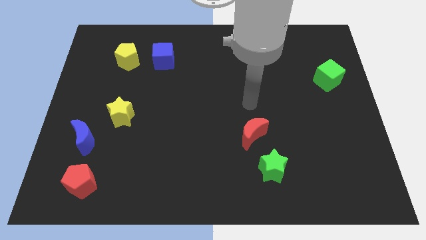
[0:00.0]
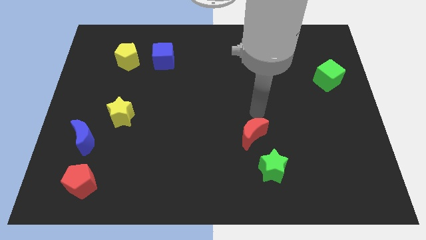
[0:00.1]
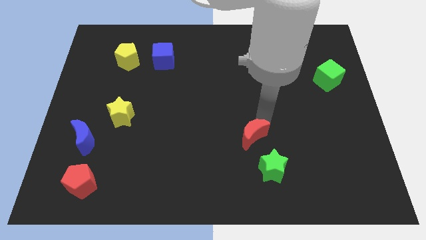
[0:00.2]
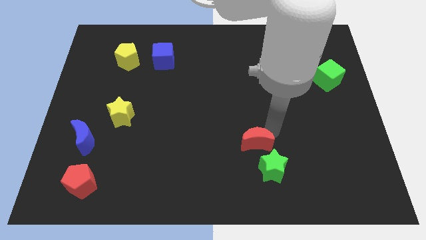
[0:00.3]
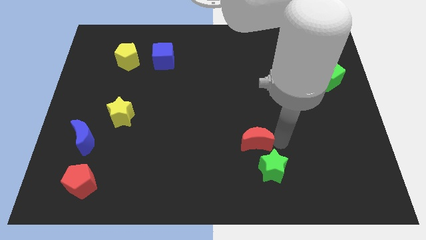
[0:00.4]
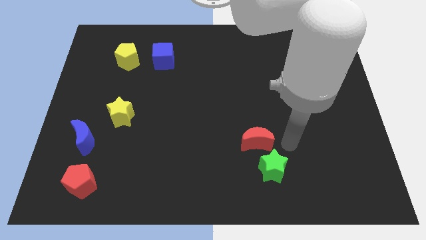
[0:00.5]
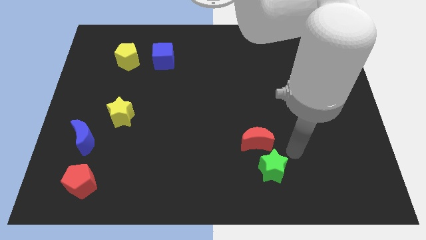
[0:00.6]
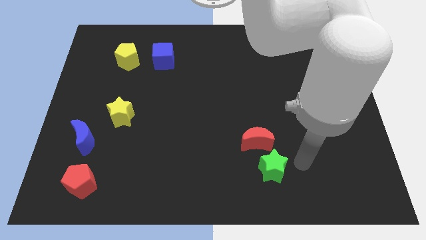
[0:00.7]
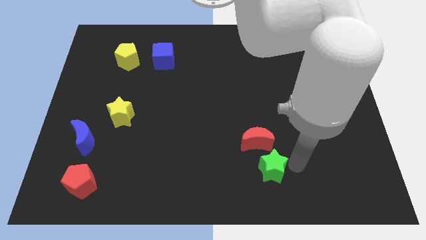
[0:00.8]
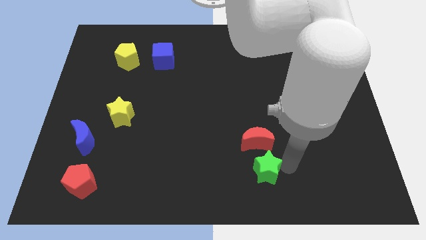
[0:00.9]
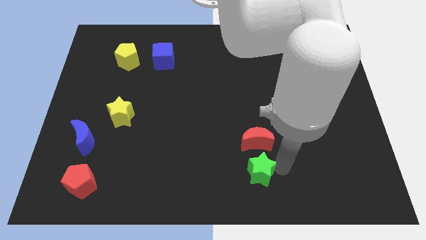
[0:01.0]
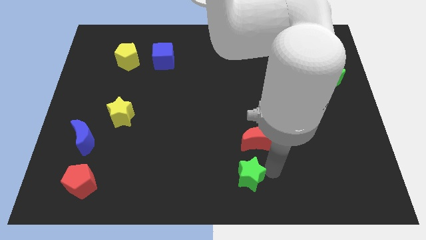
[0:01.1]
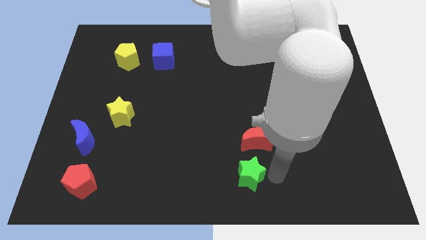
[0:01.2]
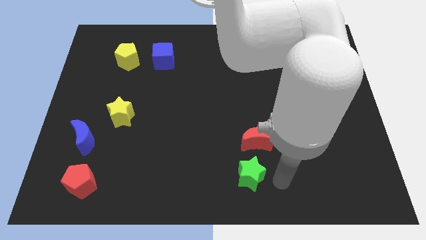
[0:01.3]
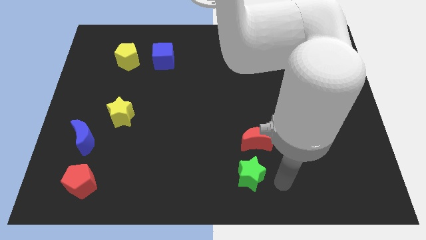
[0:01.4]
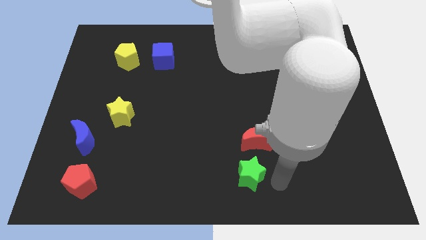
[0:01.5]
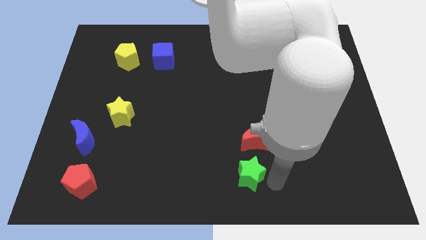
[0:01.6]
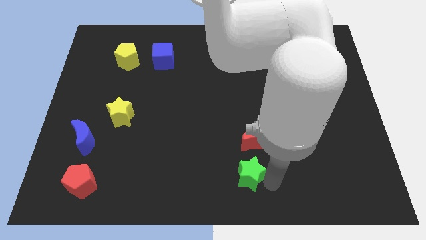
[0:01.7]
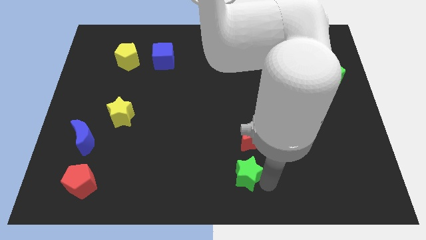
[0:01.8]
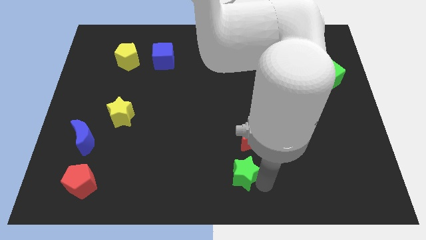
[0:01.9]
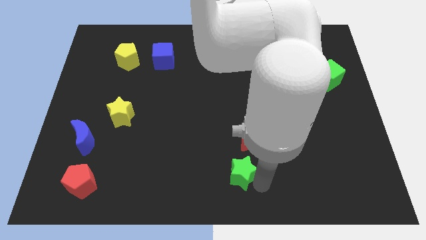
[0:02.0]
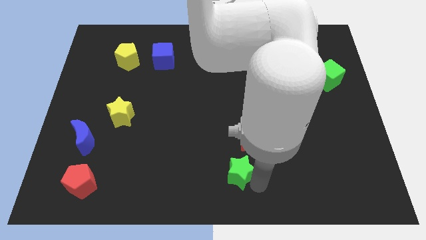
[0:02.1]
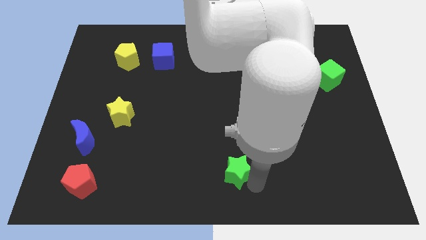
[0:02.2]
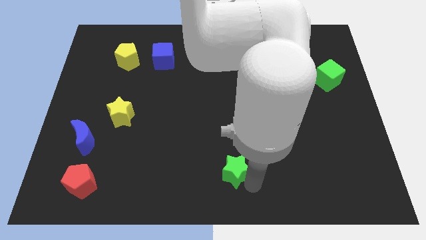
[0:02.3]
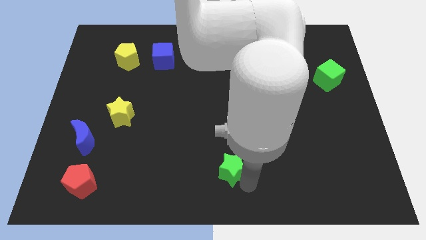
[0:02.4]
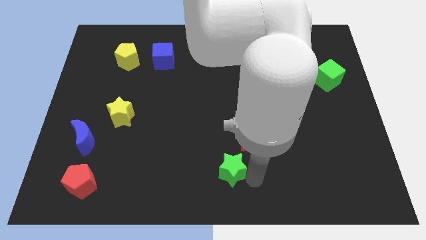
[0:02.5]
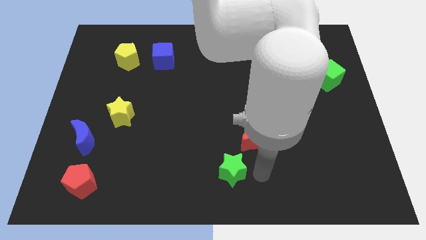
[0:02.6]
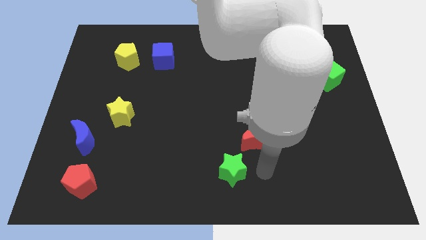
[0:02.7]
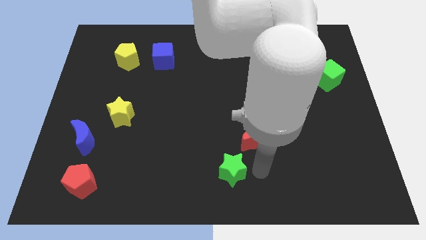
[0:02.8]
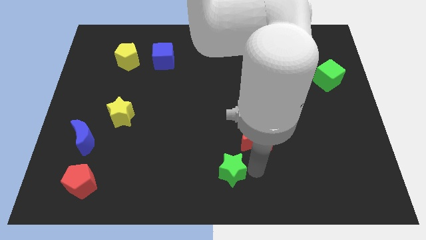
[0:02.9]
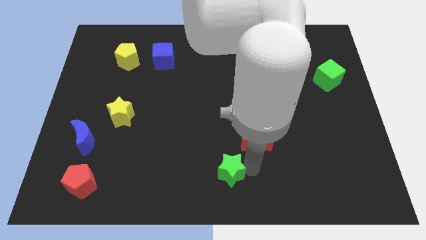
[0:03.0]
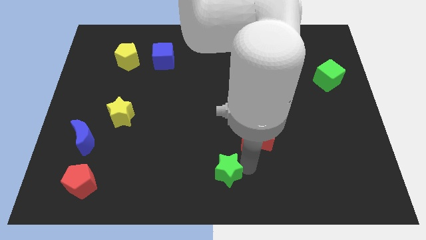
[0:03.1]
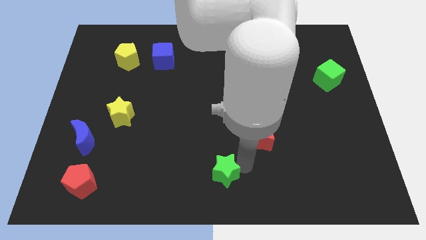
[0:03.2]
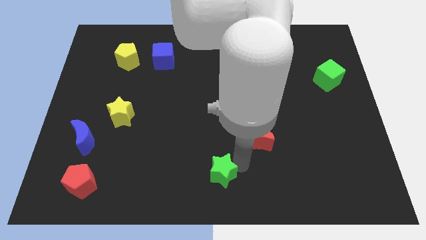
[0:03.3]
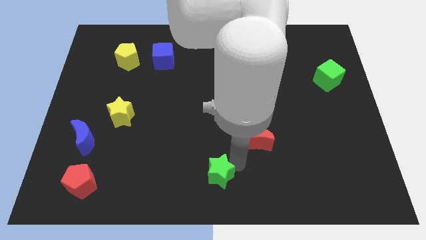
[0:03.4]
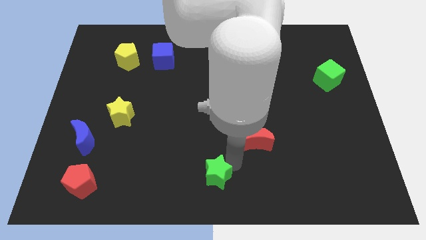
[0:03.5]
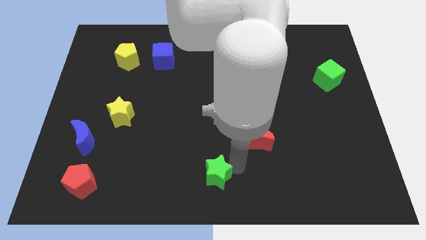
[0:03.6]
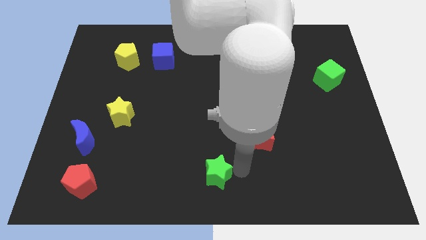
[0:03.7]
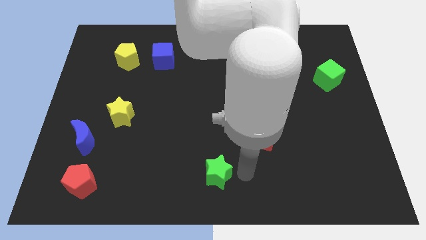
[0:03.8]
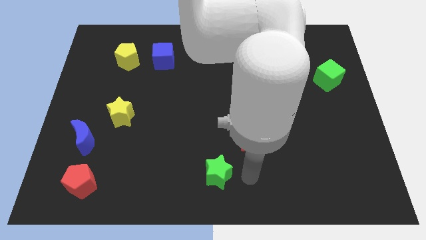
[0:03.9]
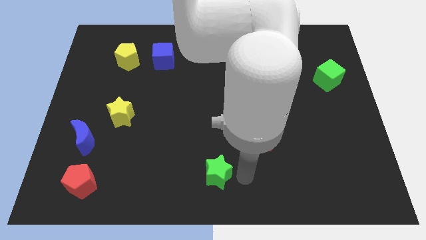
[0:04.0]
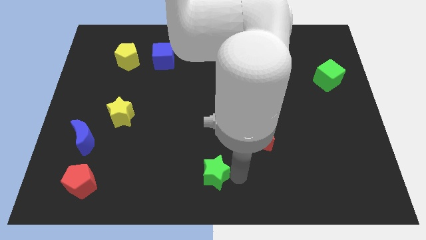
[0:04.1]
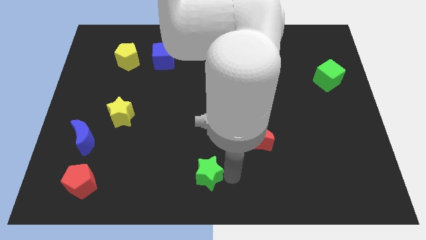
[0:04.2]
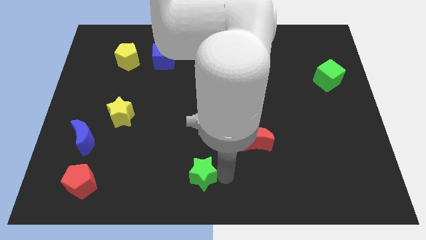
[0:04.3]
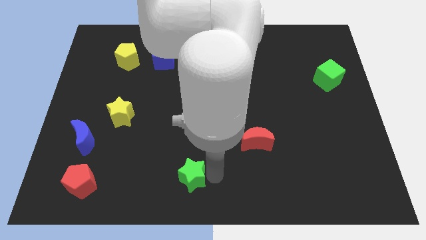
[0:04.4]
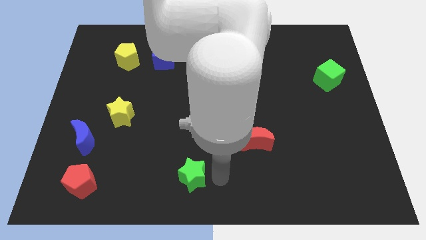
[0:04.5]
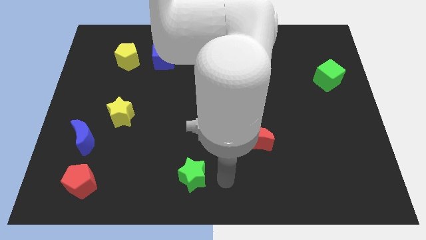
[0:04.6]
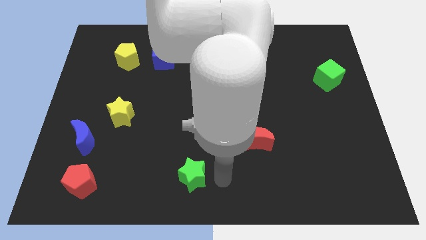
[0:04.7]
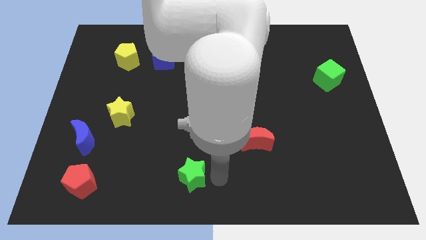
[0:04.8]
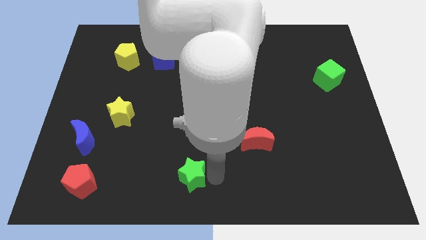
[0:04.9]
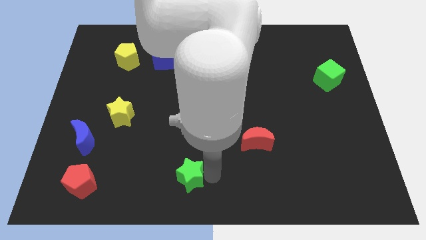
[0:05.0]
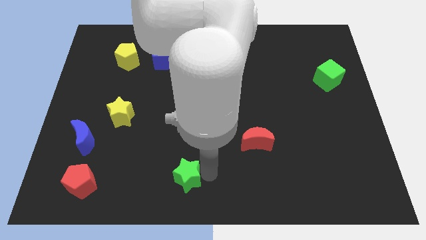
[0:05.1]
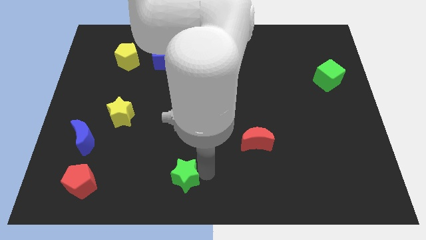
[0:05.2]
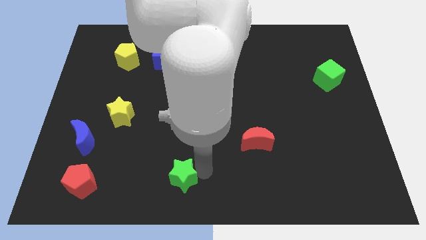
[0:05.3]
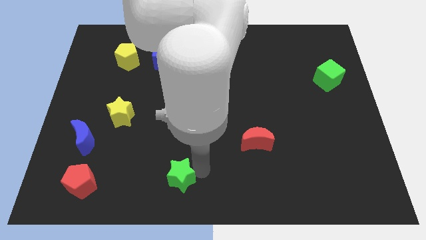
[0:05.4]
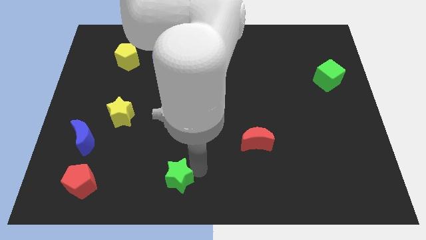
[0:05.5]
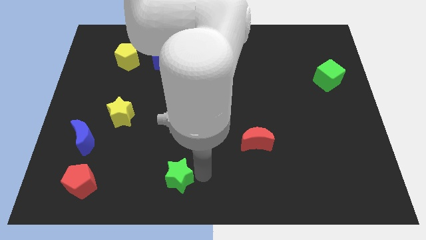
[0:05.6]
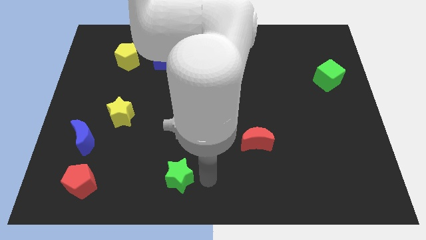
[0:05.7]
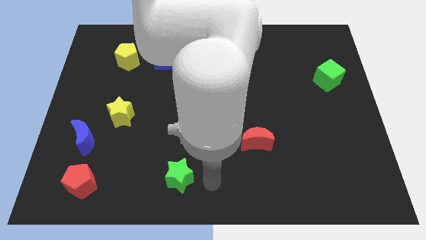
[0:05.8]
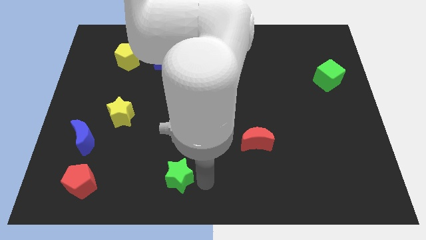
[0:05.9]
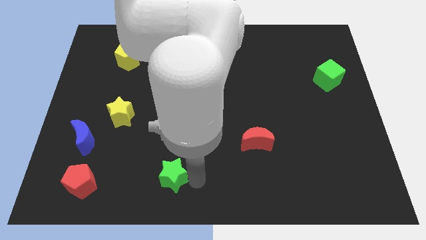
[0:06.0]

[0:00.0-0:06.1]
move the green star to the left

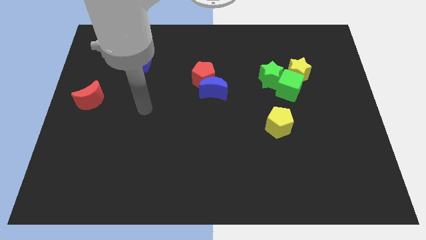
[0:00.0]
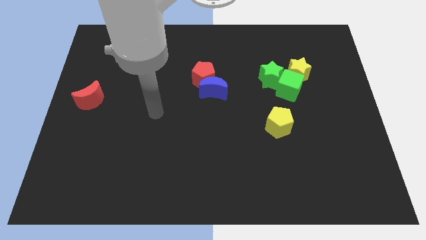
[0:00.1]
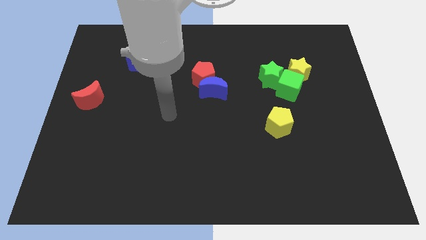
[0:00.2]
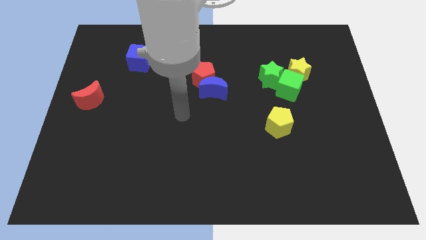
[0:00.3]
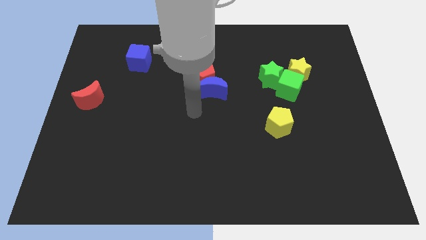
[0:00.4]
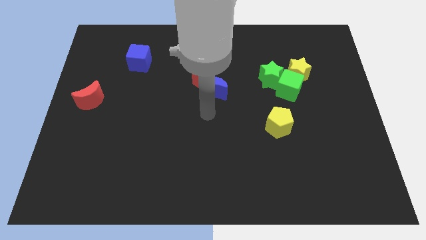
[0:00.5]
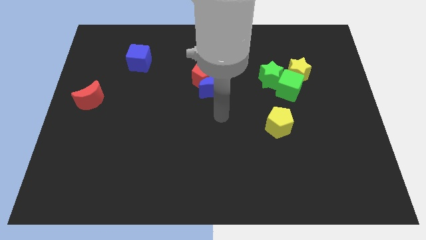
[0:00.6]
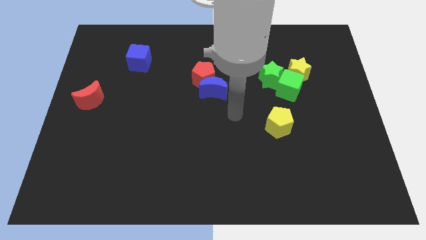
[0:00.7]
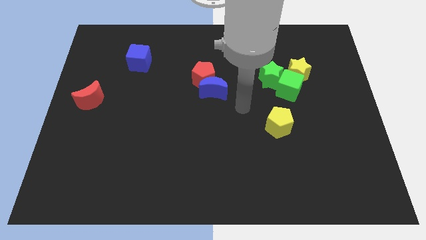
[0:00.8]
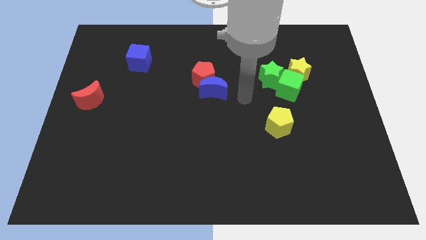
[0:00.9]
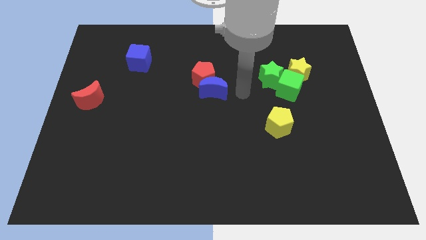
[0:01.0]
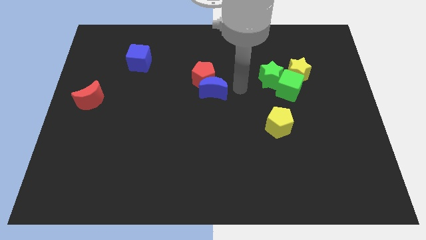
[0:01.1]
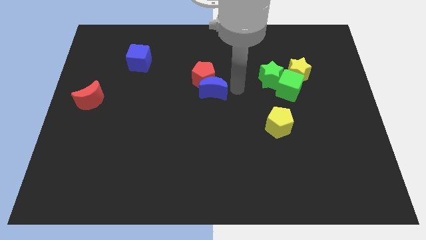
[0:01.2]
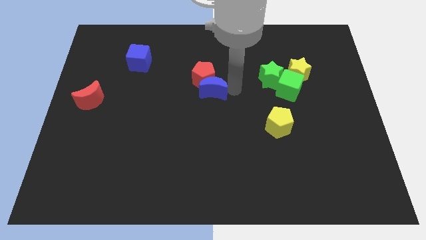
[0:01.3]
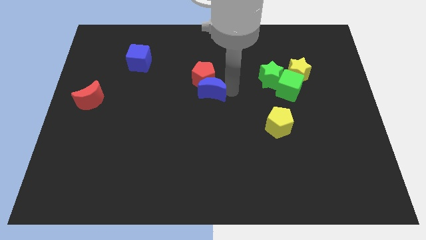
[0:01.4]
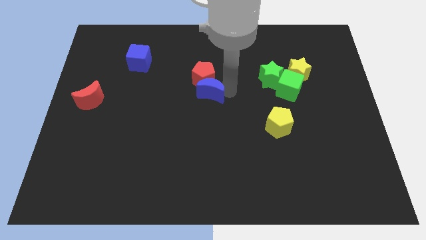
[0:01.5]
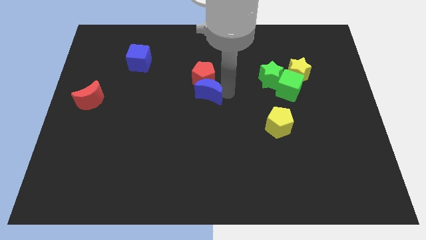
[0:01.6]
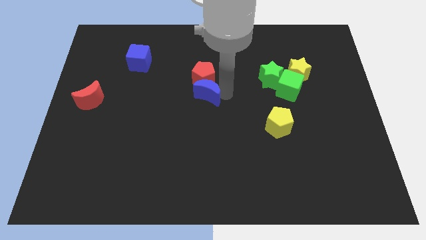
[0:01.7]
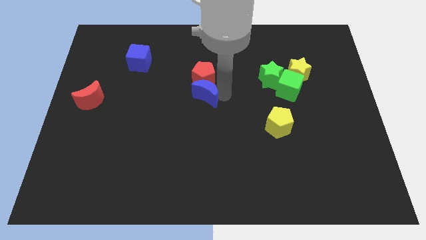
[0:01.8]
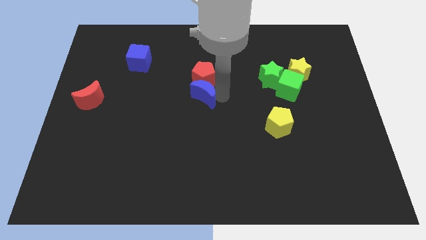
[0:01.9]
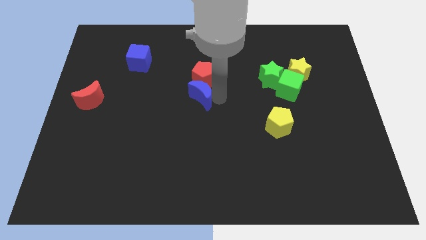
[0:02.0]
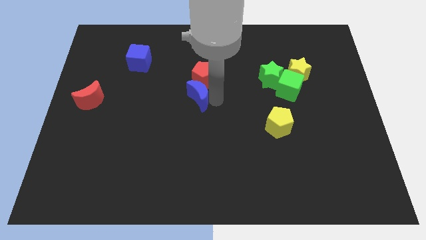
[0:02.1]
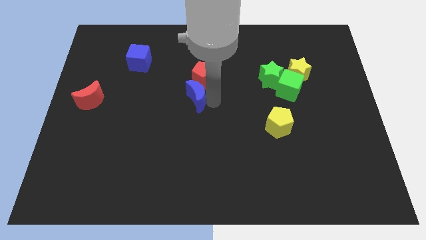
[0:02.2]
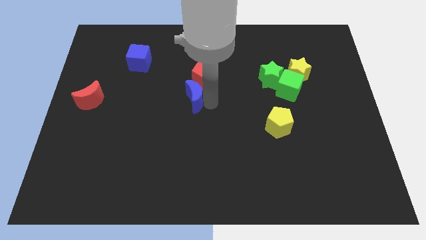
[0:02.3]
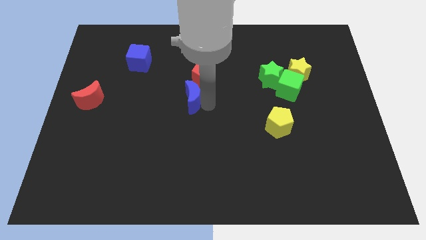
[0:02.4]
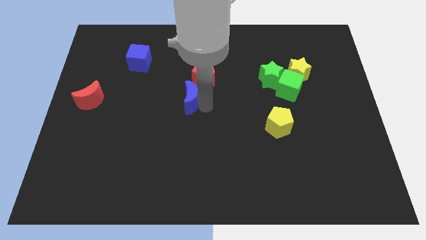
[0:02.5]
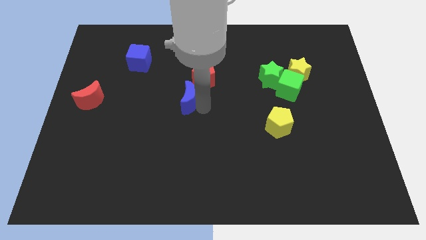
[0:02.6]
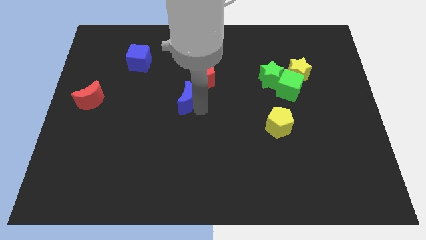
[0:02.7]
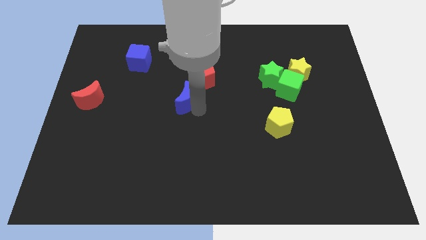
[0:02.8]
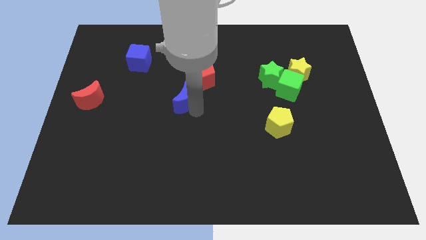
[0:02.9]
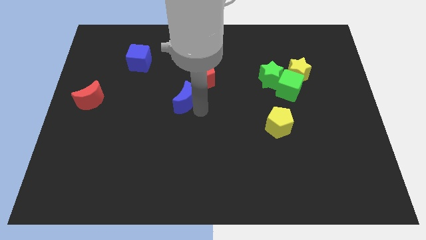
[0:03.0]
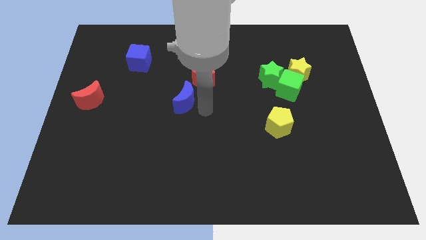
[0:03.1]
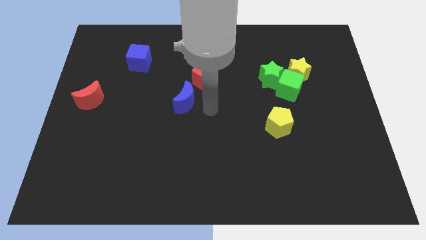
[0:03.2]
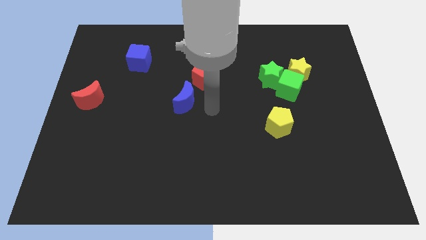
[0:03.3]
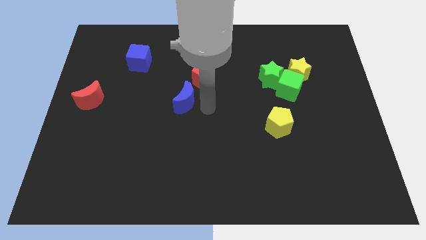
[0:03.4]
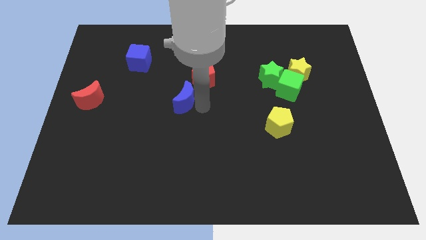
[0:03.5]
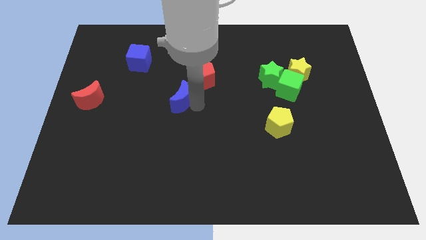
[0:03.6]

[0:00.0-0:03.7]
move the blue moon slightly to the left
